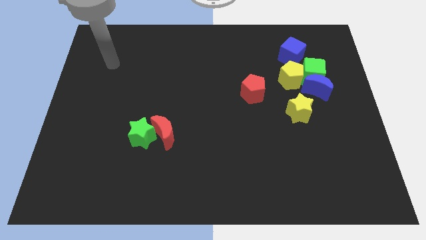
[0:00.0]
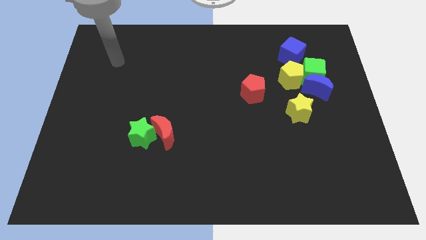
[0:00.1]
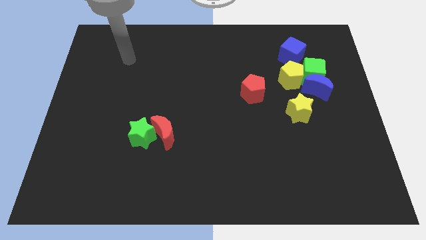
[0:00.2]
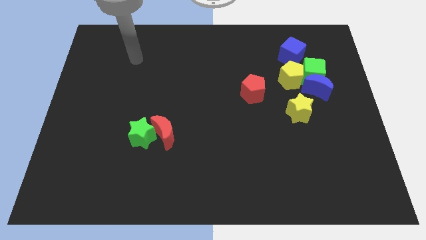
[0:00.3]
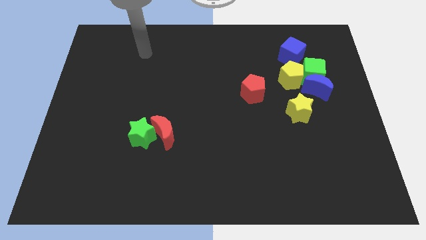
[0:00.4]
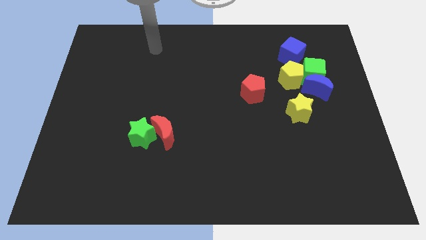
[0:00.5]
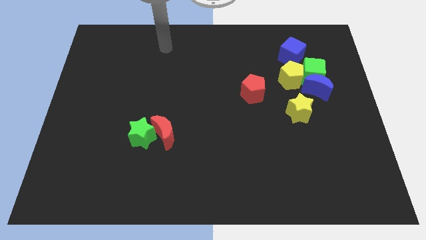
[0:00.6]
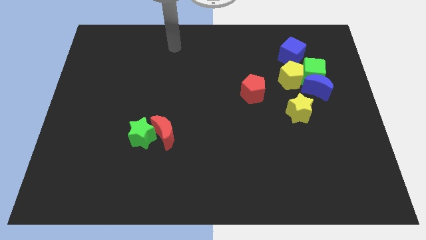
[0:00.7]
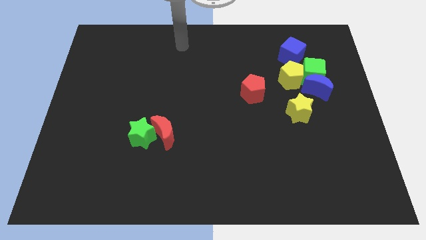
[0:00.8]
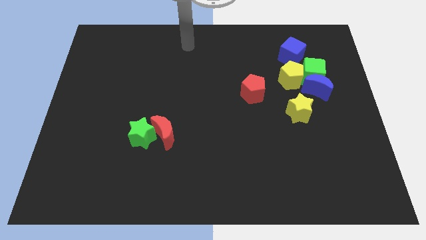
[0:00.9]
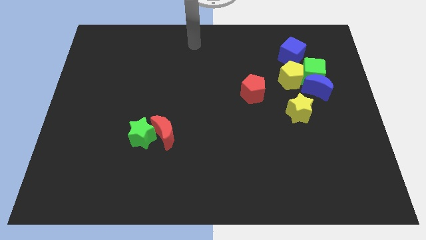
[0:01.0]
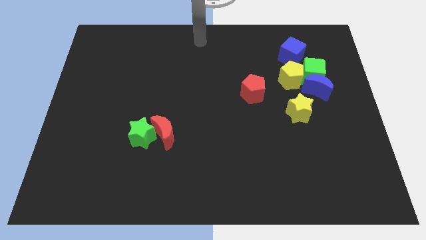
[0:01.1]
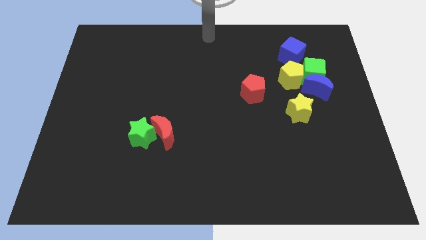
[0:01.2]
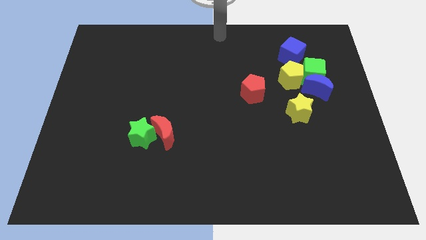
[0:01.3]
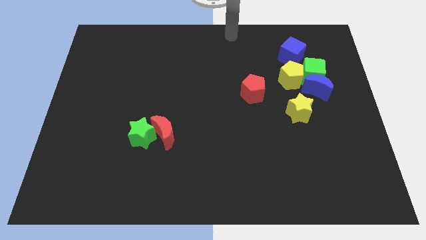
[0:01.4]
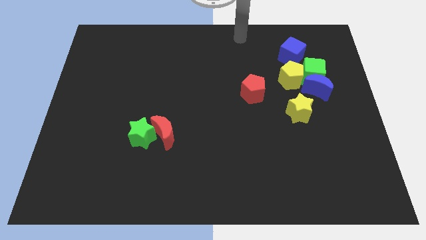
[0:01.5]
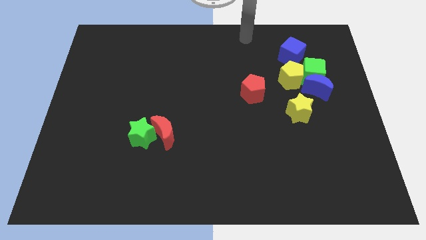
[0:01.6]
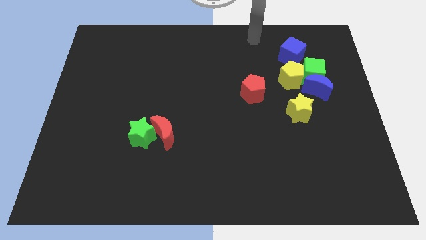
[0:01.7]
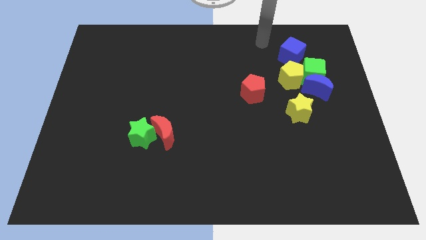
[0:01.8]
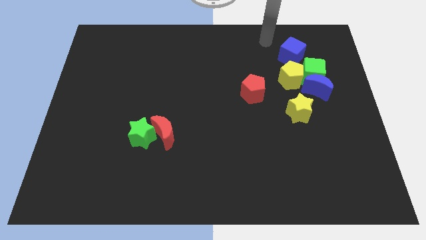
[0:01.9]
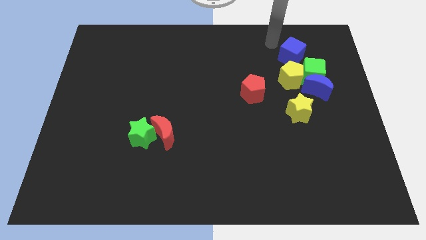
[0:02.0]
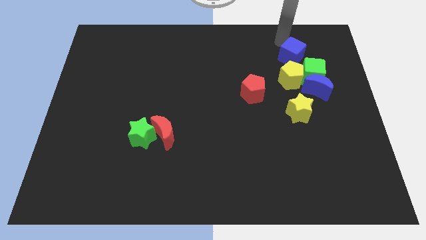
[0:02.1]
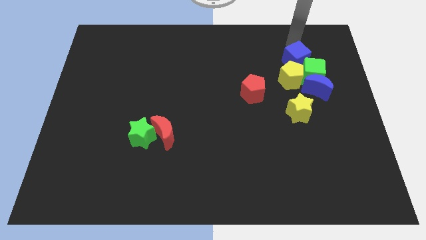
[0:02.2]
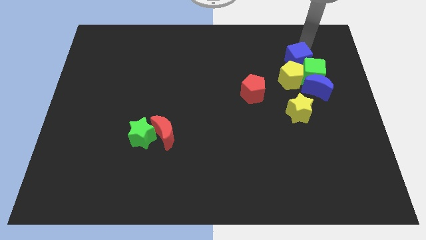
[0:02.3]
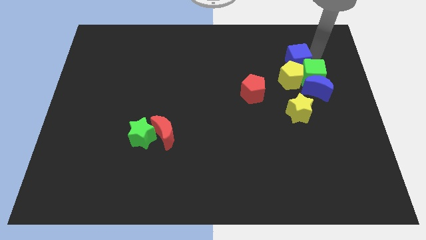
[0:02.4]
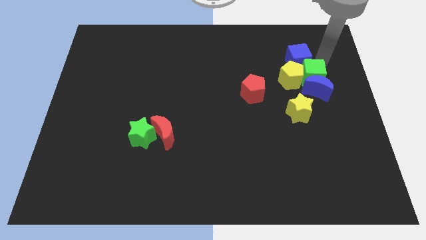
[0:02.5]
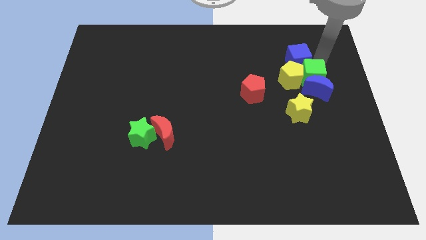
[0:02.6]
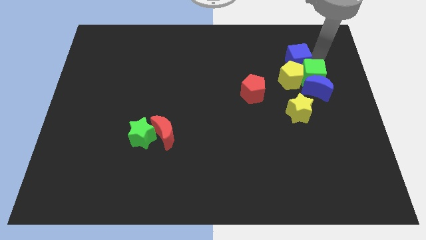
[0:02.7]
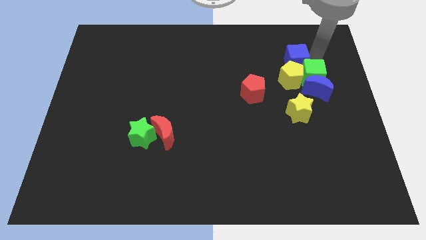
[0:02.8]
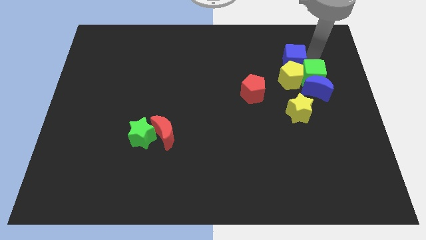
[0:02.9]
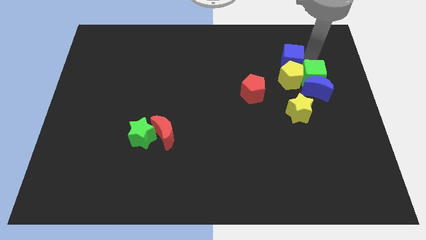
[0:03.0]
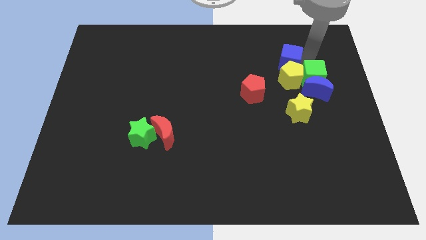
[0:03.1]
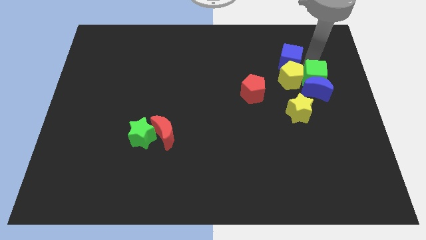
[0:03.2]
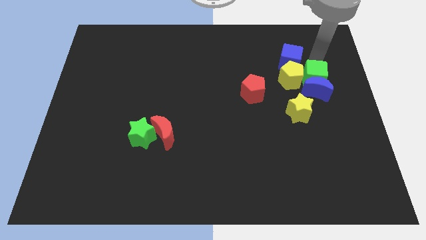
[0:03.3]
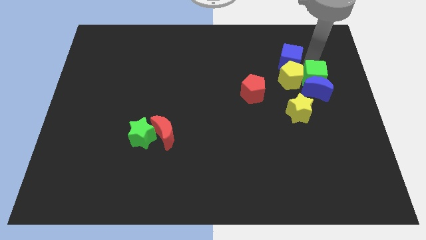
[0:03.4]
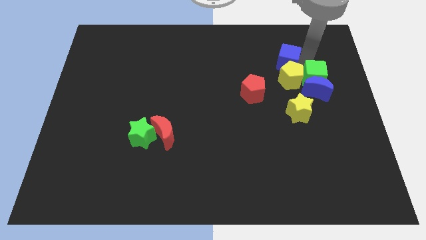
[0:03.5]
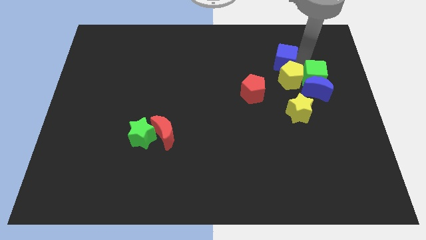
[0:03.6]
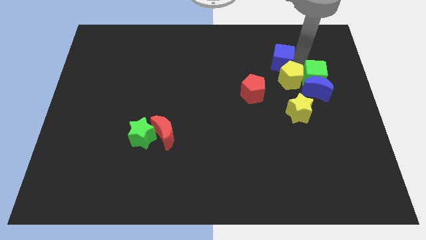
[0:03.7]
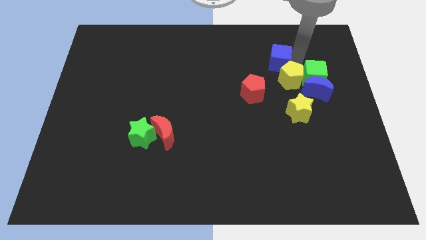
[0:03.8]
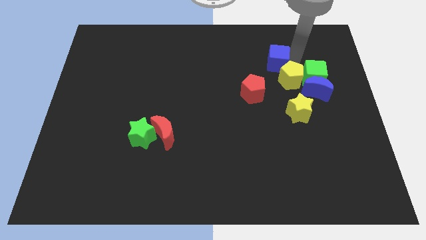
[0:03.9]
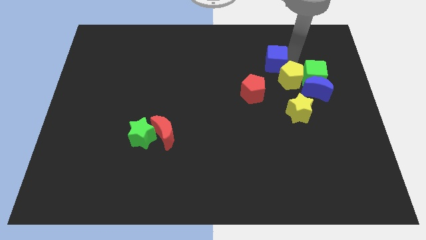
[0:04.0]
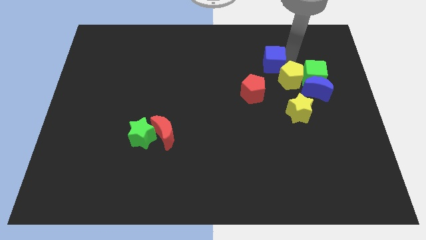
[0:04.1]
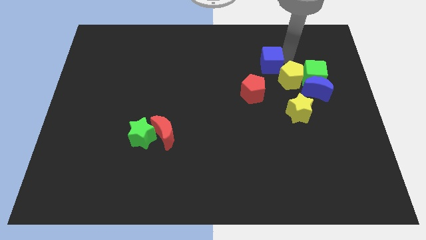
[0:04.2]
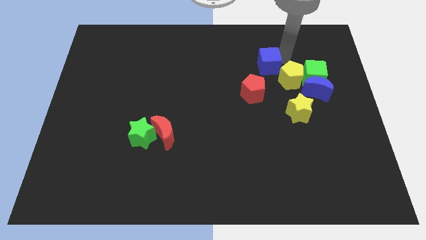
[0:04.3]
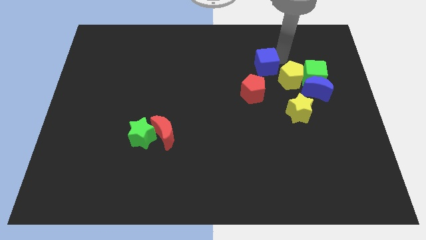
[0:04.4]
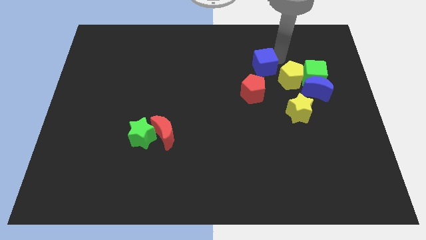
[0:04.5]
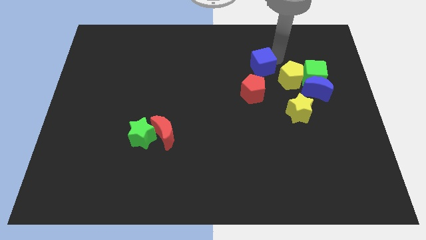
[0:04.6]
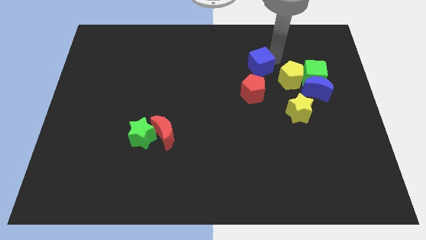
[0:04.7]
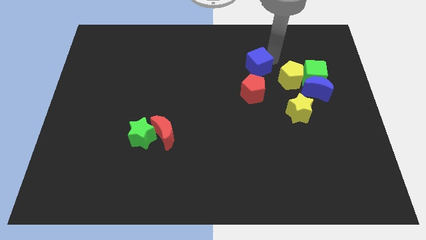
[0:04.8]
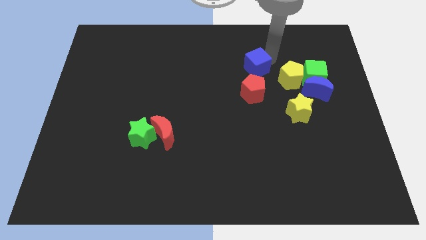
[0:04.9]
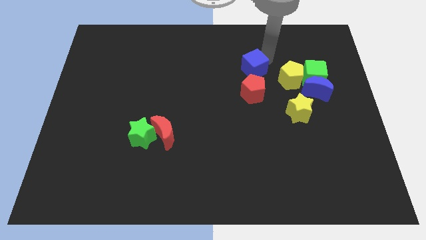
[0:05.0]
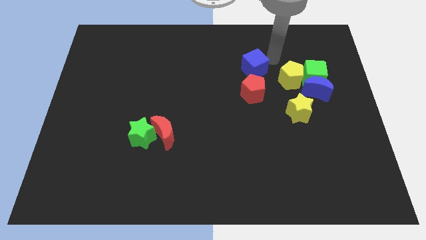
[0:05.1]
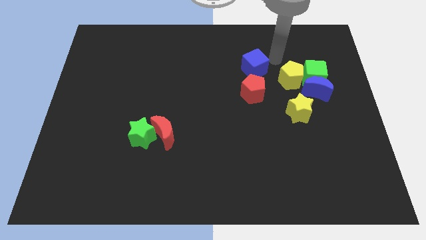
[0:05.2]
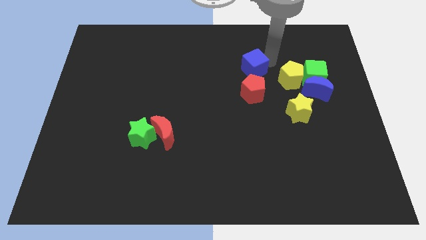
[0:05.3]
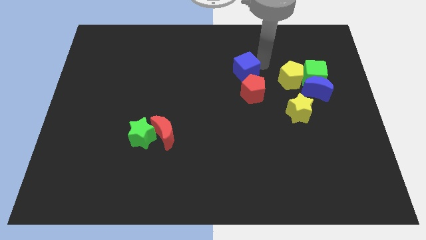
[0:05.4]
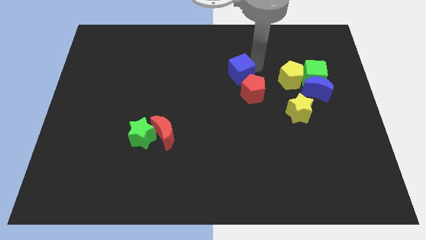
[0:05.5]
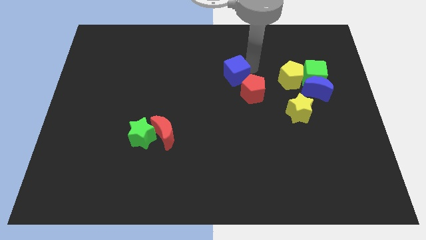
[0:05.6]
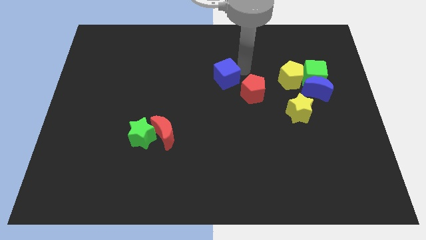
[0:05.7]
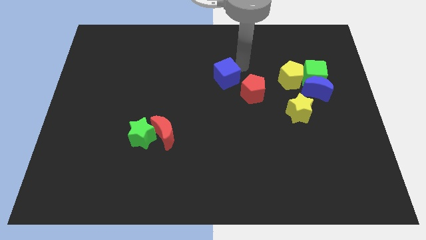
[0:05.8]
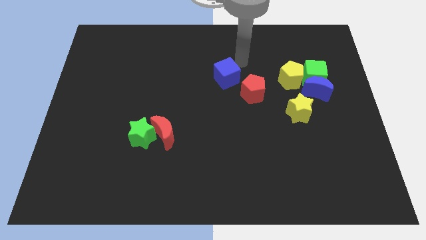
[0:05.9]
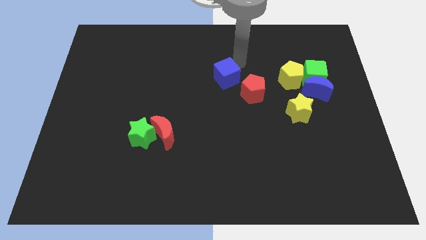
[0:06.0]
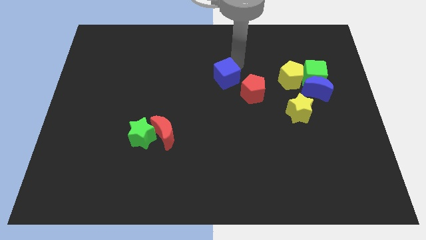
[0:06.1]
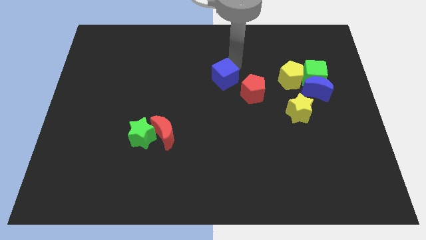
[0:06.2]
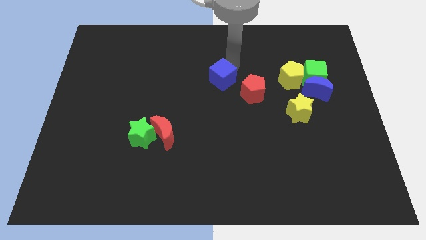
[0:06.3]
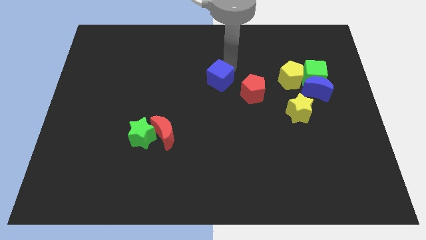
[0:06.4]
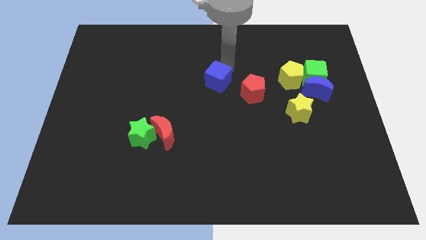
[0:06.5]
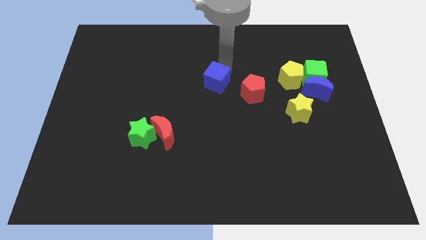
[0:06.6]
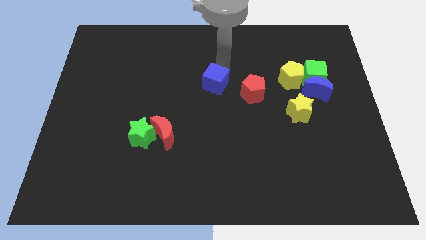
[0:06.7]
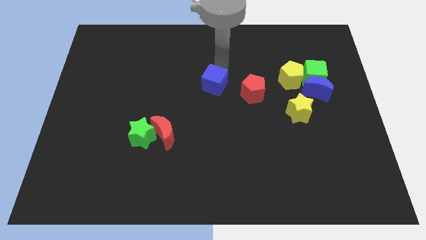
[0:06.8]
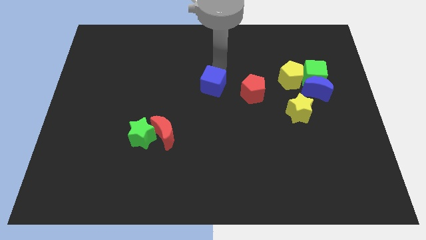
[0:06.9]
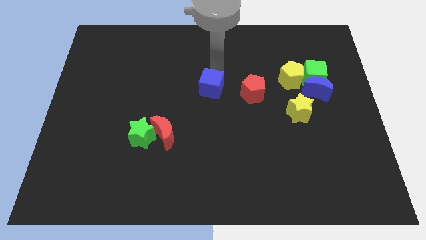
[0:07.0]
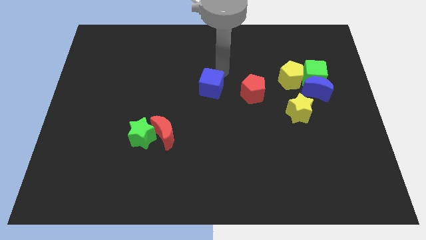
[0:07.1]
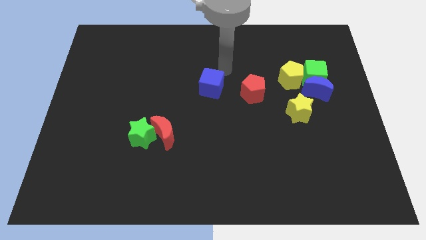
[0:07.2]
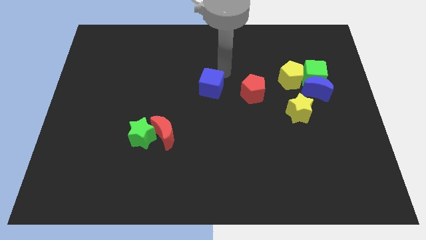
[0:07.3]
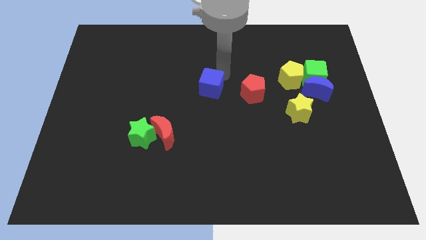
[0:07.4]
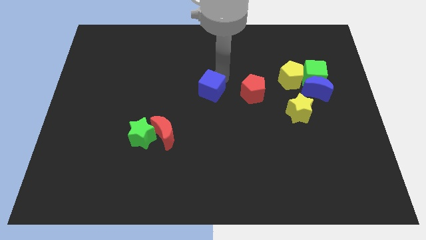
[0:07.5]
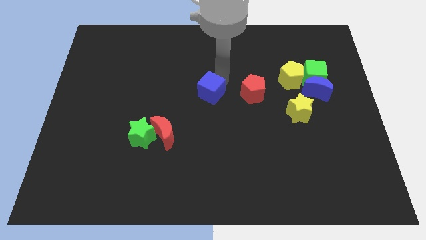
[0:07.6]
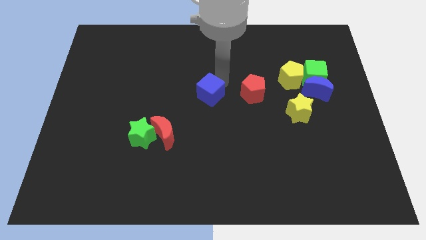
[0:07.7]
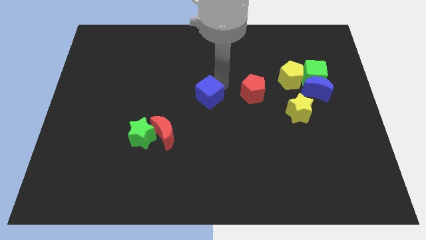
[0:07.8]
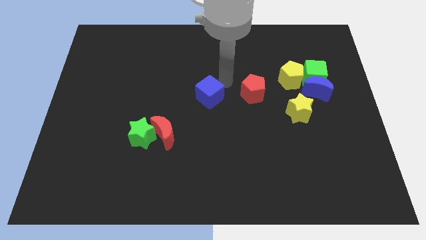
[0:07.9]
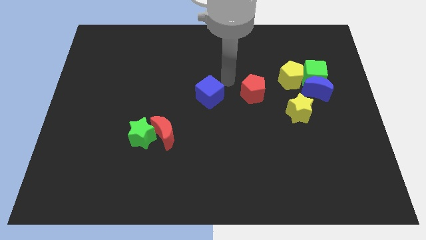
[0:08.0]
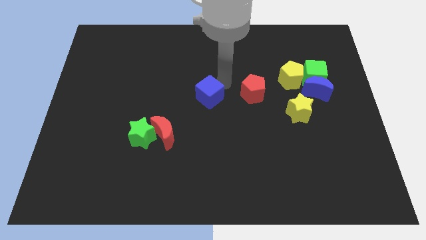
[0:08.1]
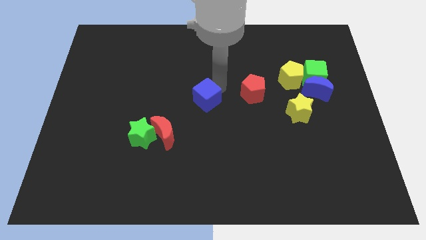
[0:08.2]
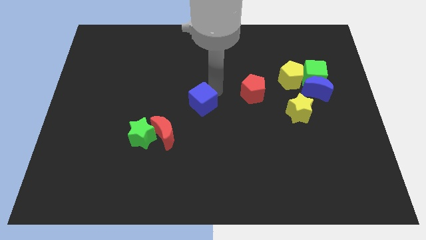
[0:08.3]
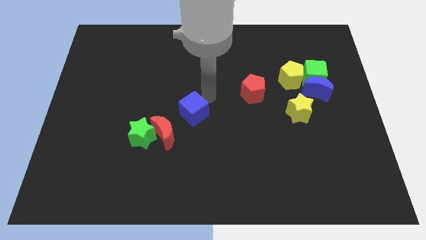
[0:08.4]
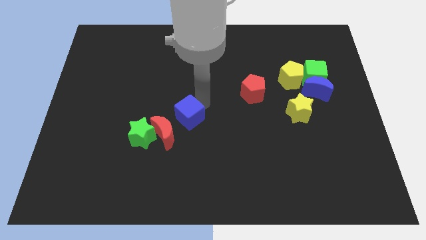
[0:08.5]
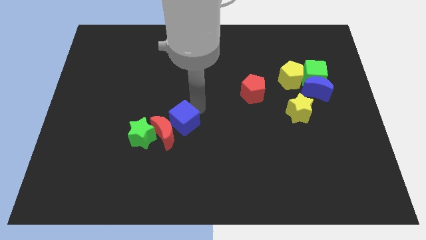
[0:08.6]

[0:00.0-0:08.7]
put the blue cube towards the red moon
